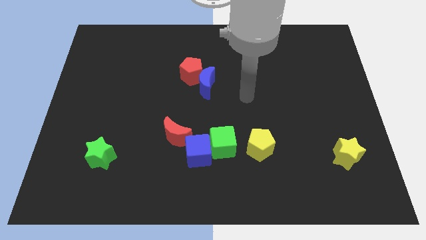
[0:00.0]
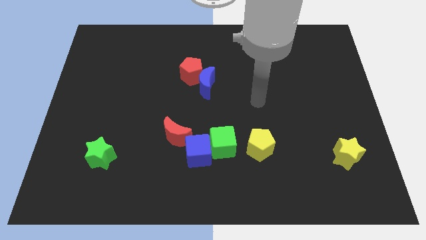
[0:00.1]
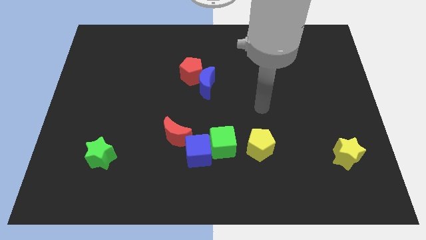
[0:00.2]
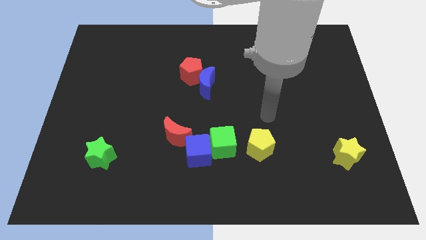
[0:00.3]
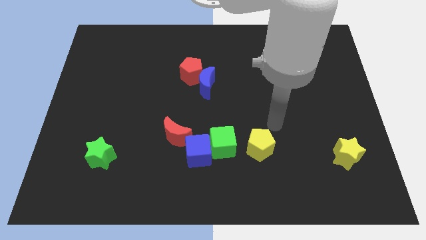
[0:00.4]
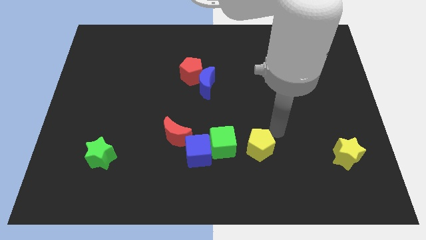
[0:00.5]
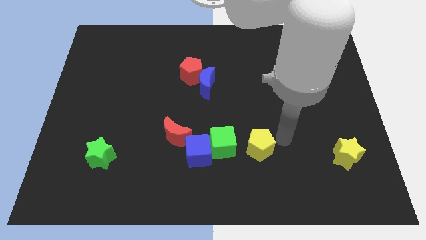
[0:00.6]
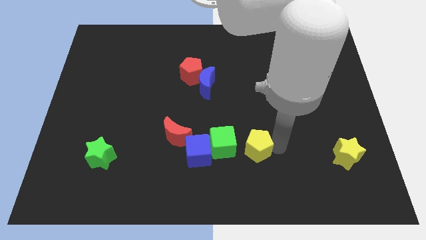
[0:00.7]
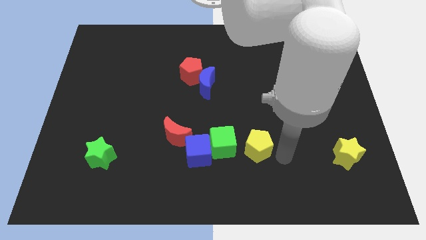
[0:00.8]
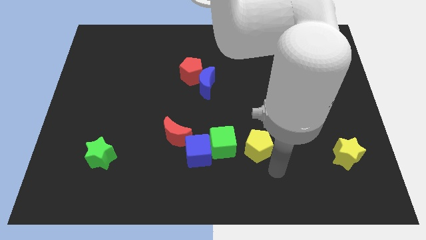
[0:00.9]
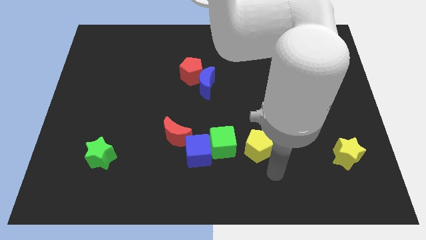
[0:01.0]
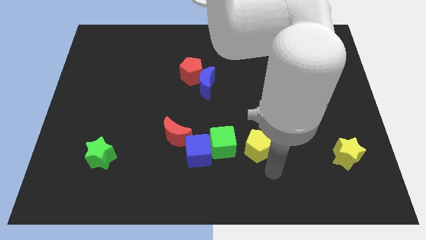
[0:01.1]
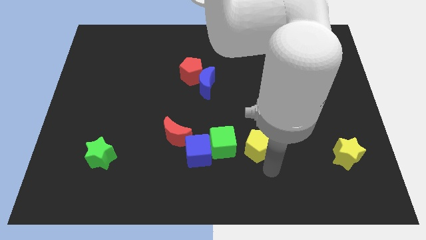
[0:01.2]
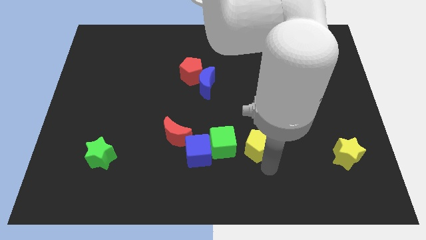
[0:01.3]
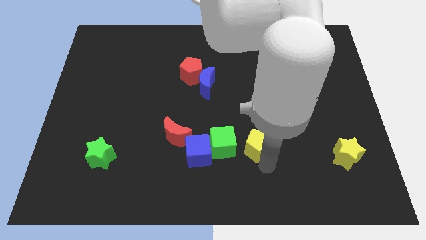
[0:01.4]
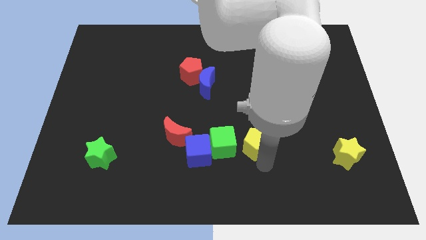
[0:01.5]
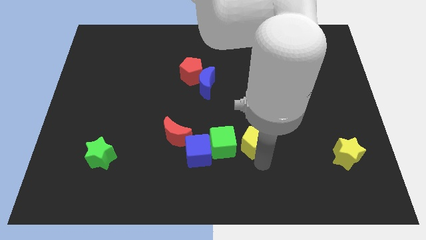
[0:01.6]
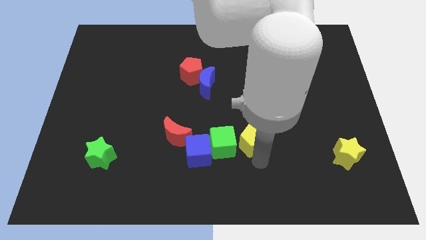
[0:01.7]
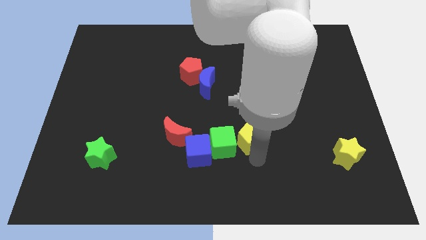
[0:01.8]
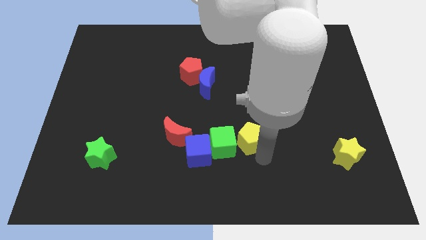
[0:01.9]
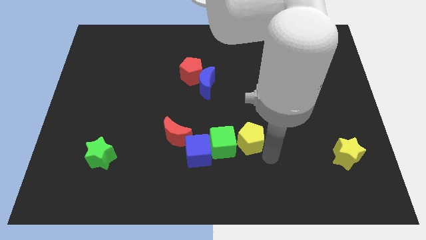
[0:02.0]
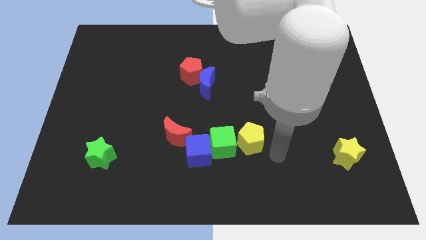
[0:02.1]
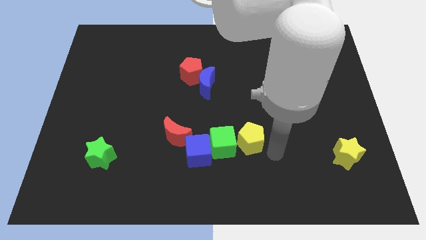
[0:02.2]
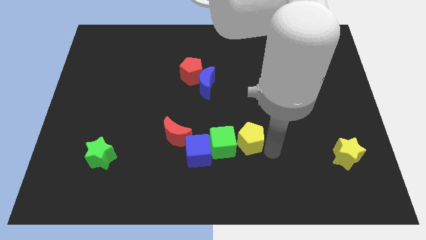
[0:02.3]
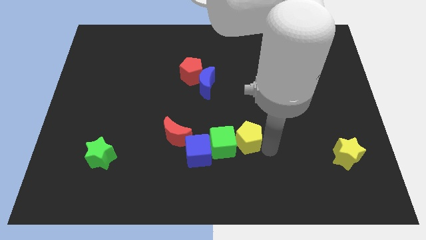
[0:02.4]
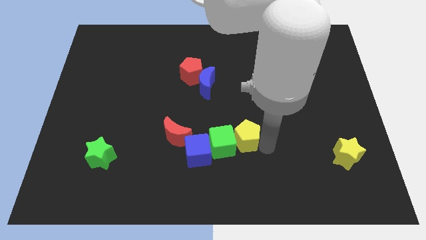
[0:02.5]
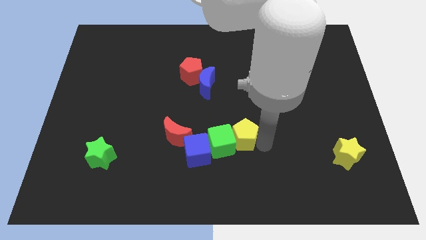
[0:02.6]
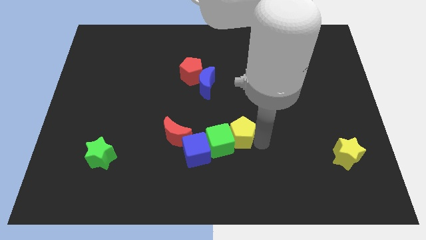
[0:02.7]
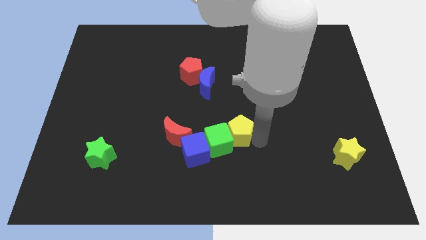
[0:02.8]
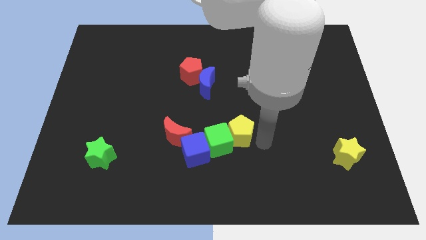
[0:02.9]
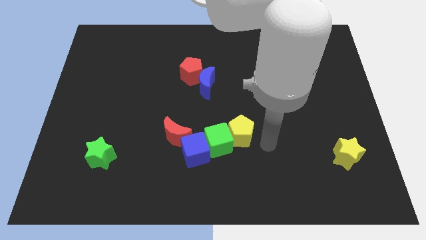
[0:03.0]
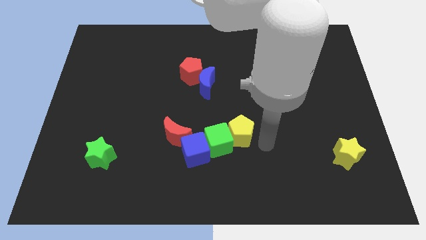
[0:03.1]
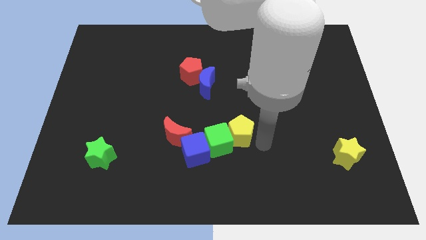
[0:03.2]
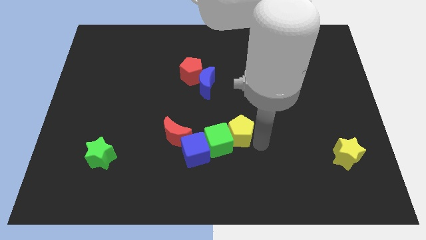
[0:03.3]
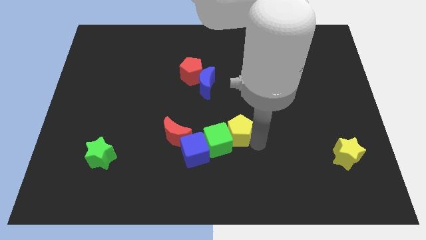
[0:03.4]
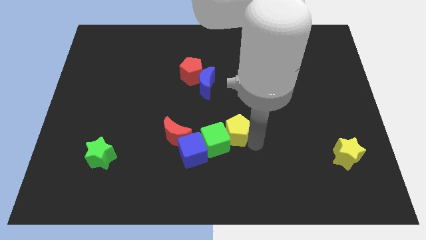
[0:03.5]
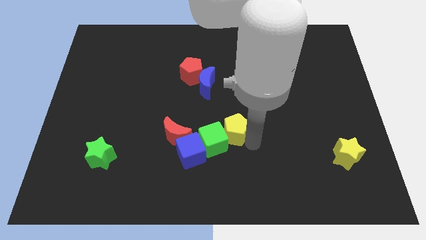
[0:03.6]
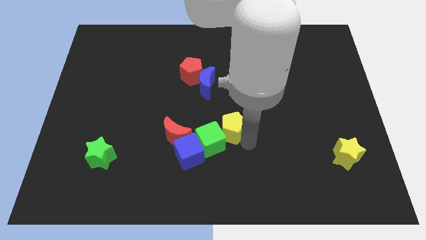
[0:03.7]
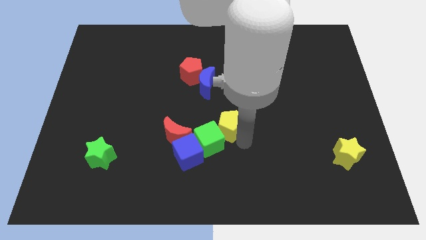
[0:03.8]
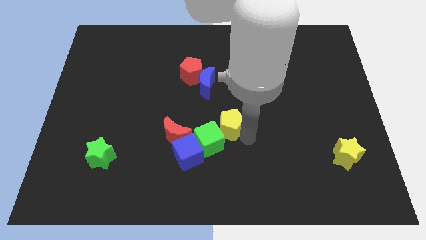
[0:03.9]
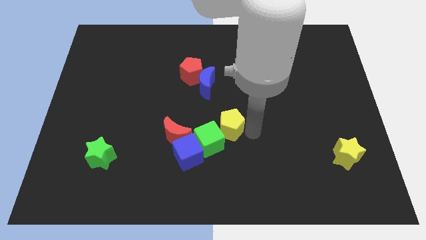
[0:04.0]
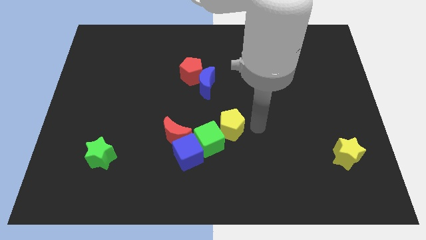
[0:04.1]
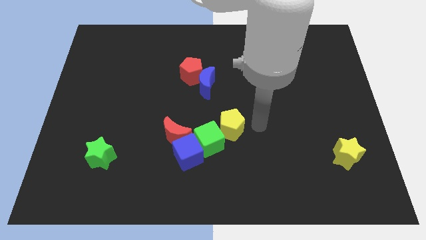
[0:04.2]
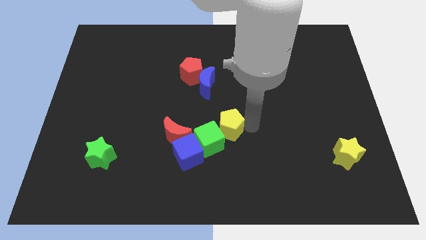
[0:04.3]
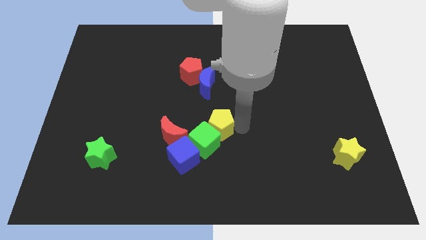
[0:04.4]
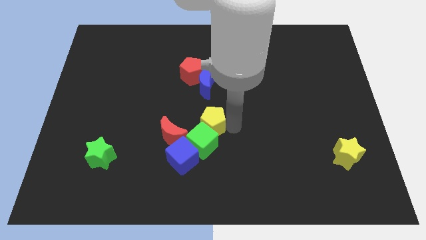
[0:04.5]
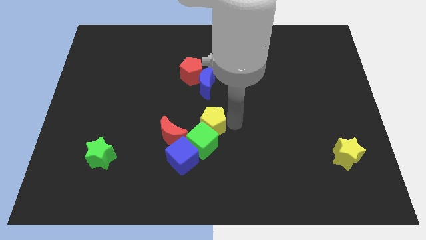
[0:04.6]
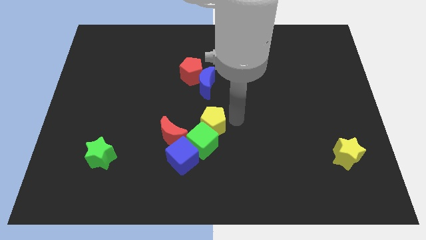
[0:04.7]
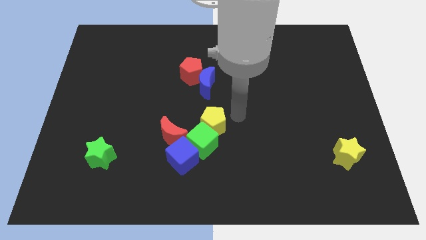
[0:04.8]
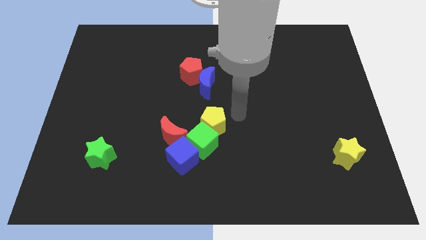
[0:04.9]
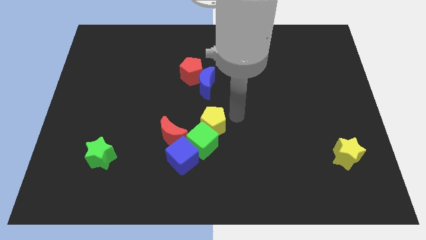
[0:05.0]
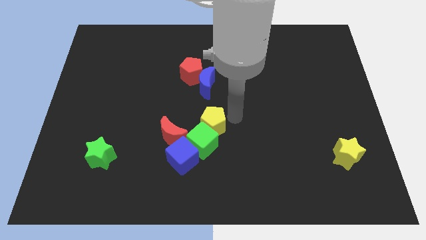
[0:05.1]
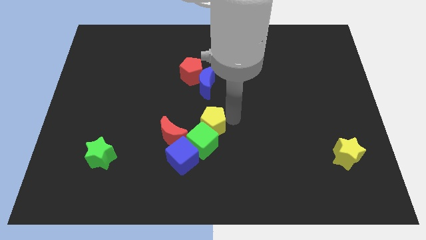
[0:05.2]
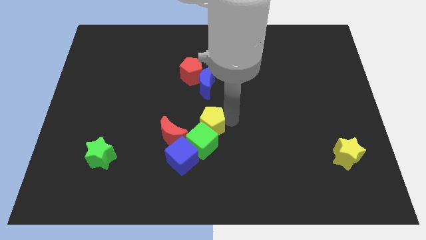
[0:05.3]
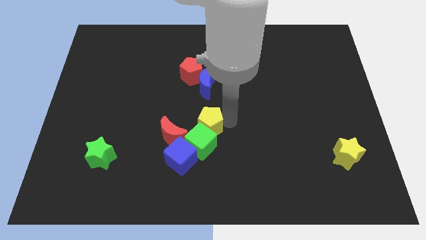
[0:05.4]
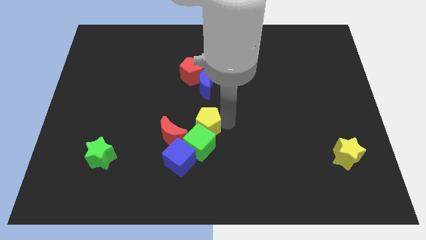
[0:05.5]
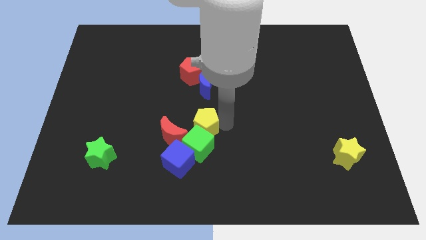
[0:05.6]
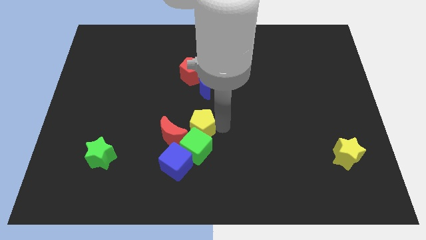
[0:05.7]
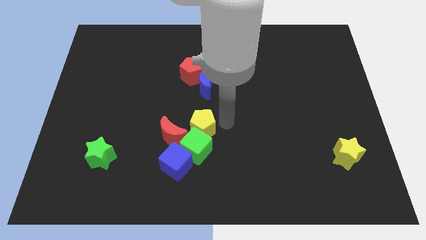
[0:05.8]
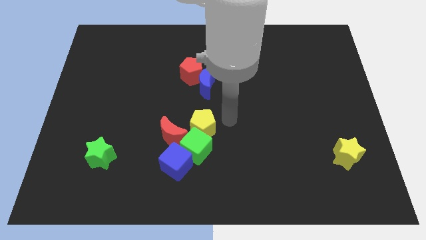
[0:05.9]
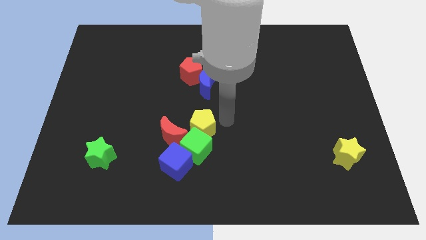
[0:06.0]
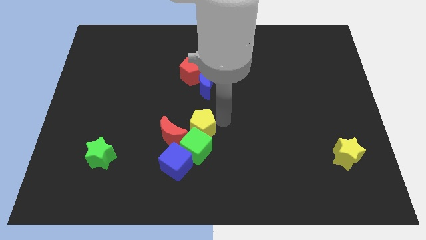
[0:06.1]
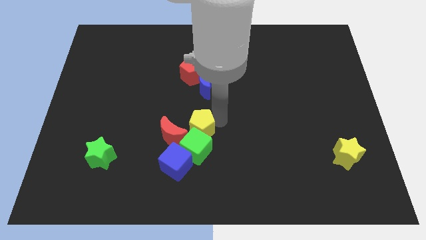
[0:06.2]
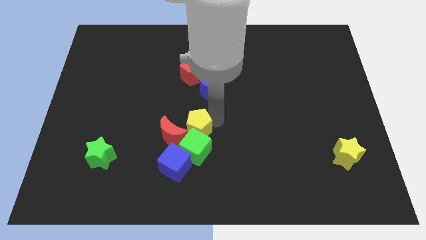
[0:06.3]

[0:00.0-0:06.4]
slide the yellow pentagon to the red moon
